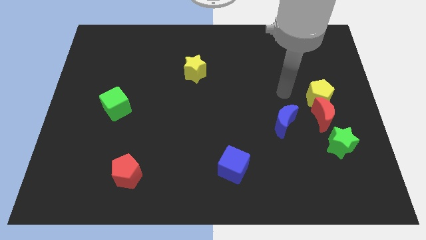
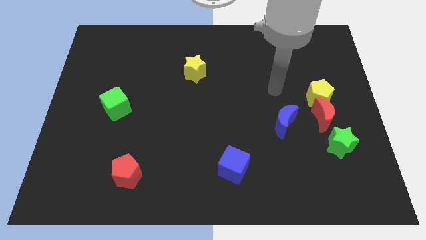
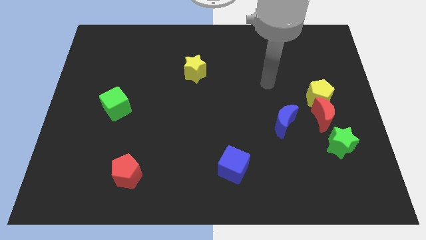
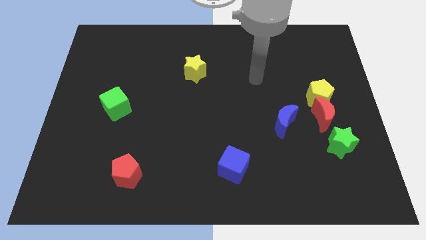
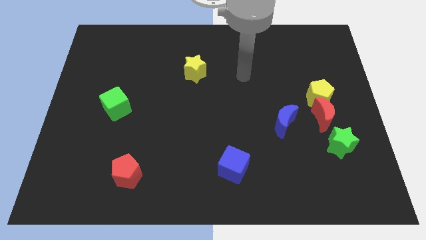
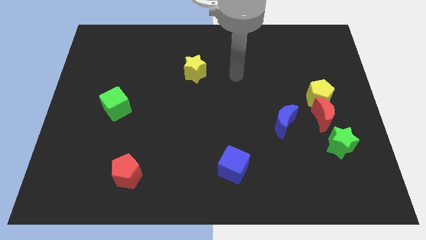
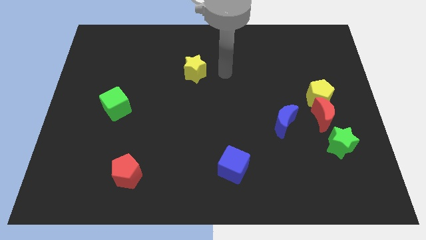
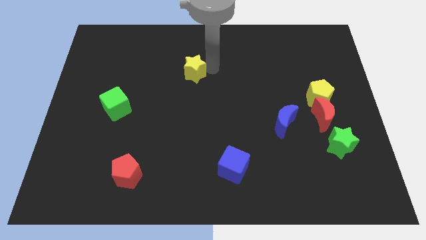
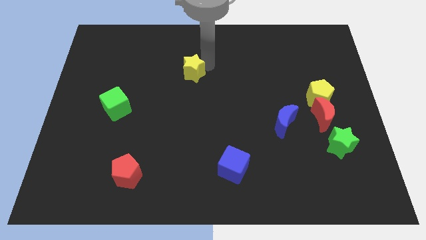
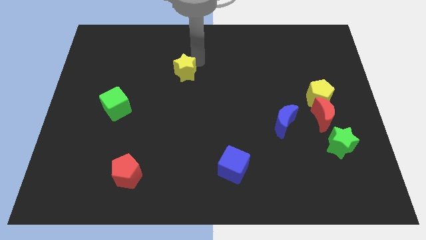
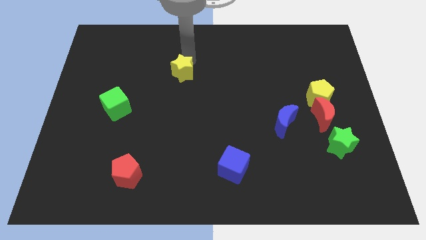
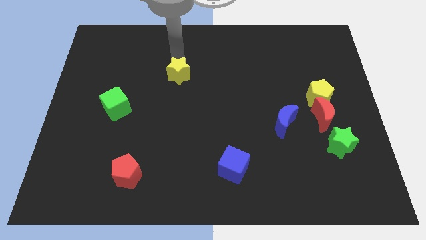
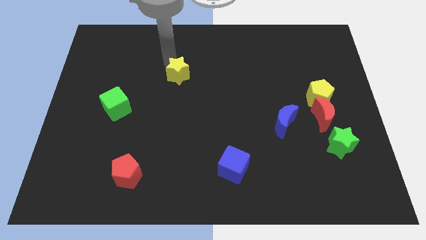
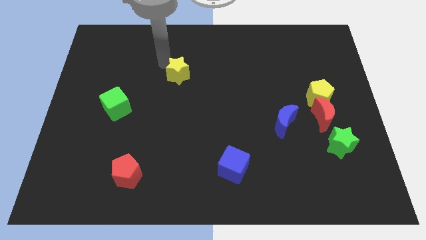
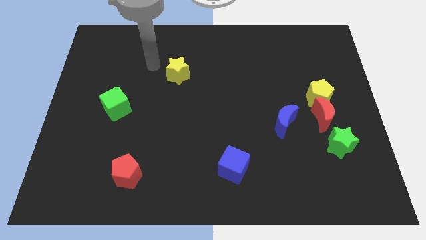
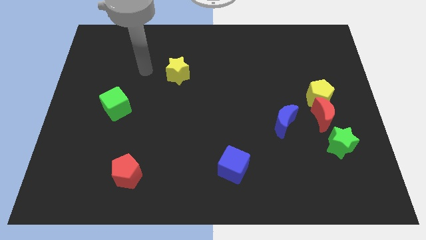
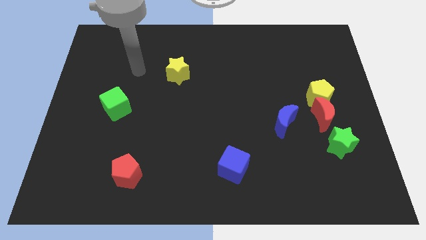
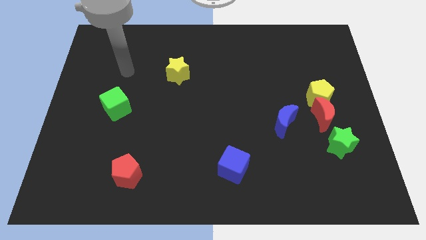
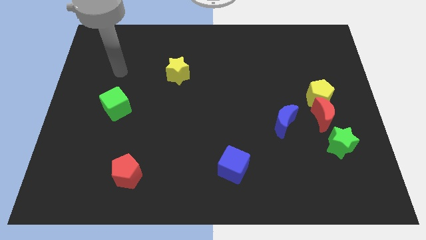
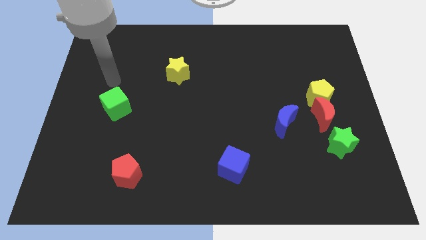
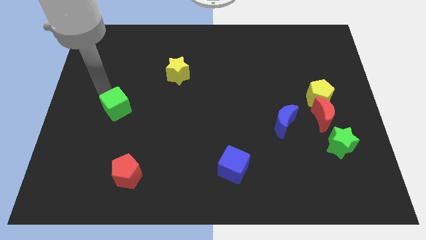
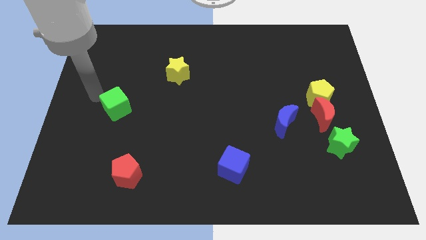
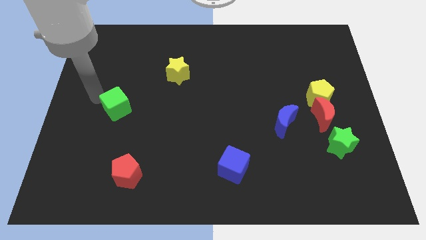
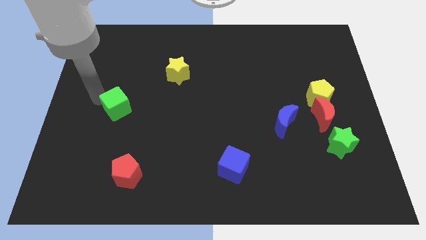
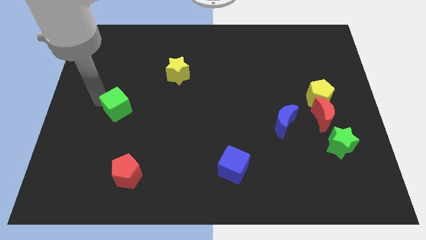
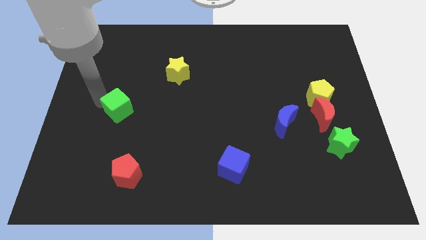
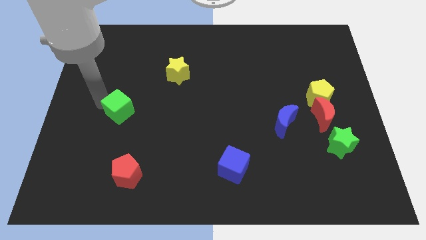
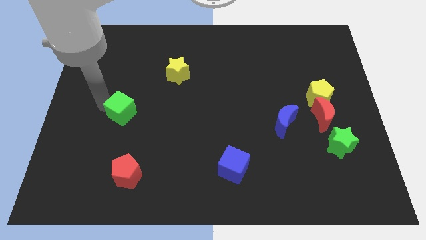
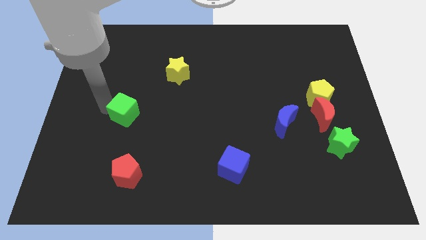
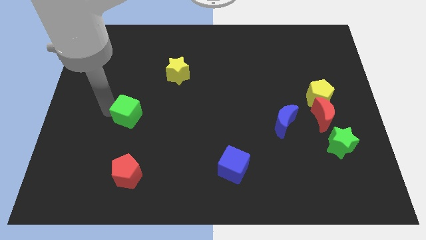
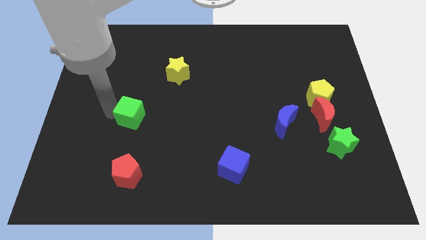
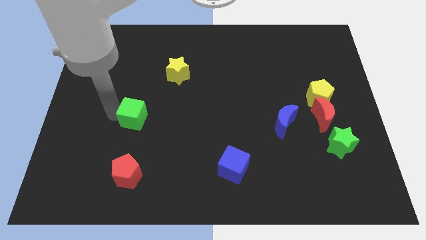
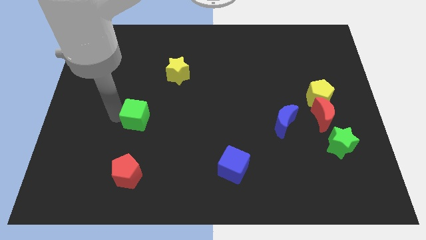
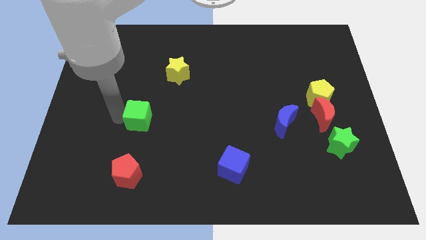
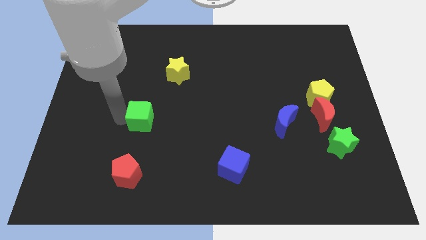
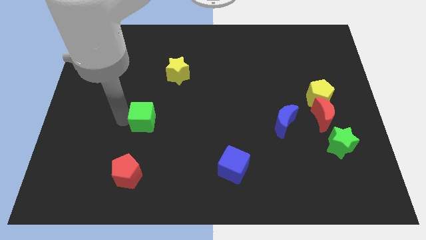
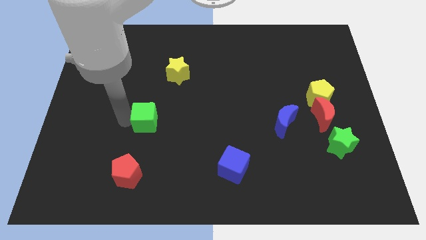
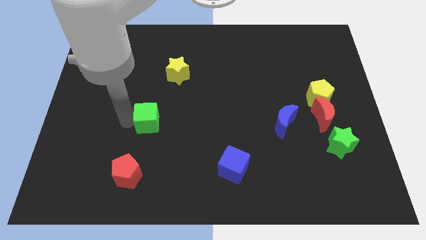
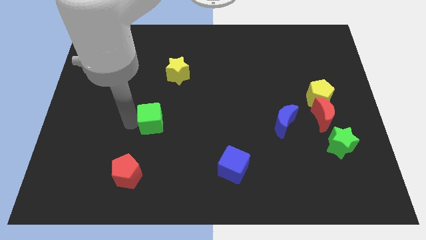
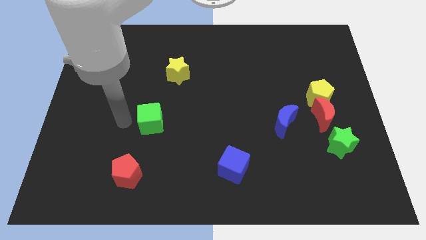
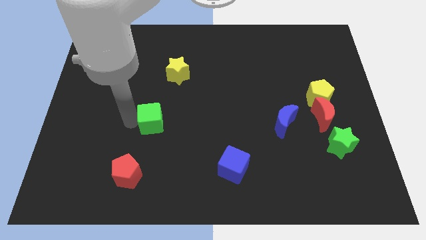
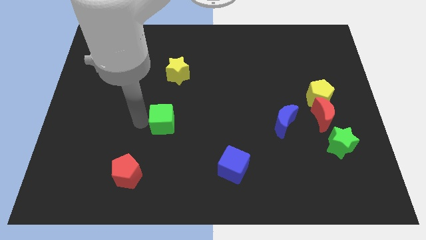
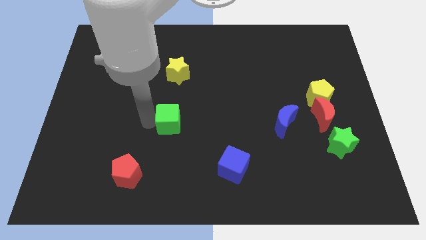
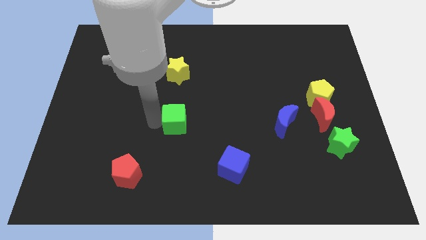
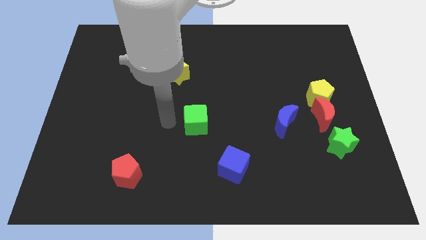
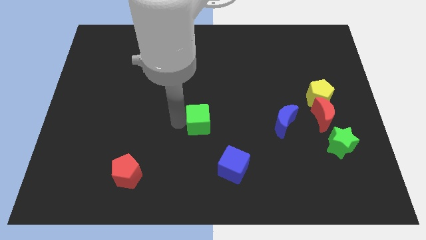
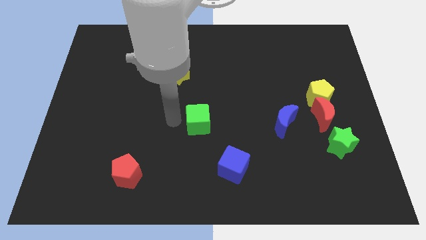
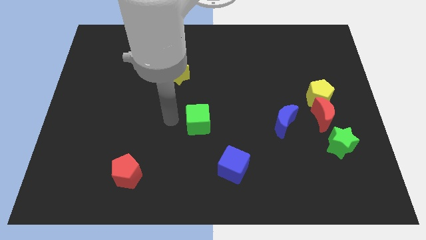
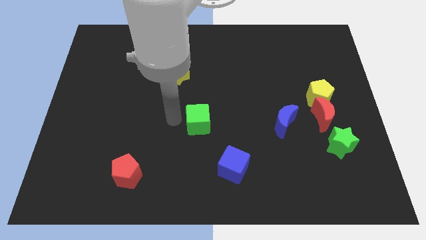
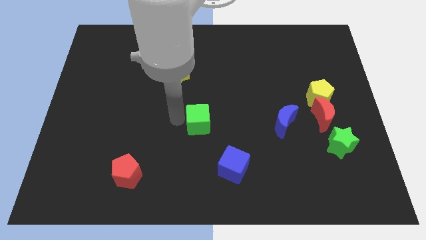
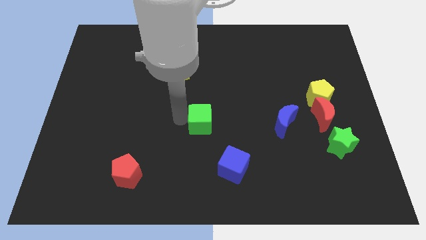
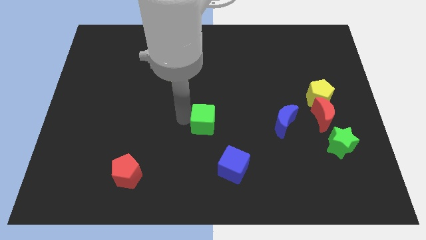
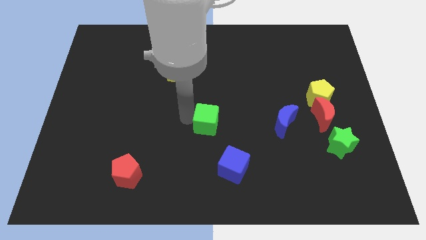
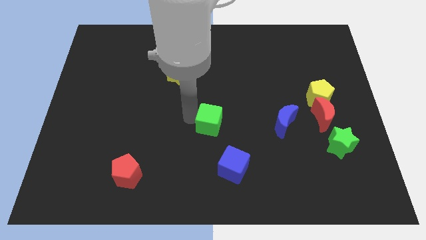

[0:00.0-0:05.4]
put the green cube to the top side of the blue cube

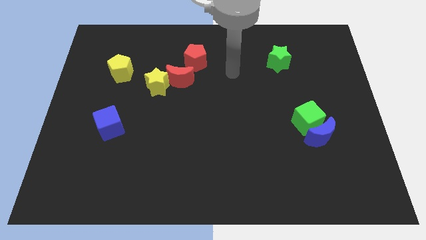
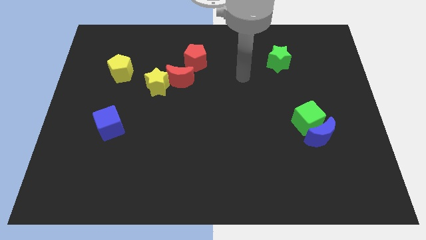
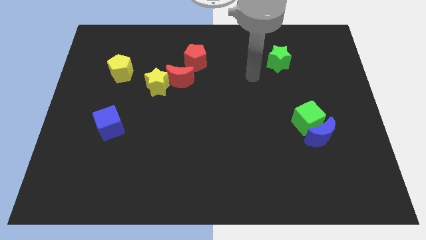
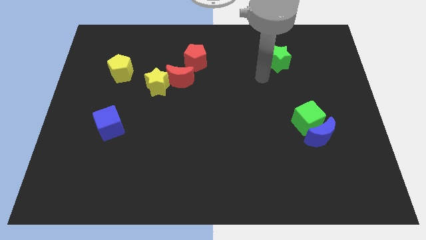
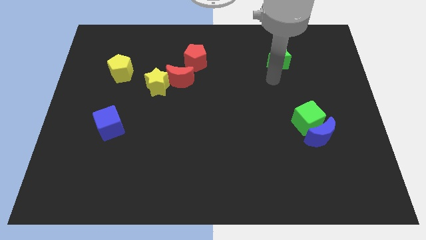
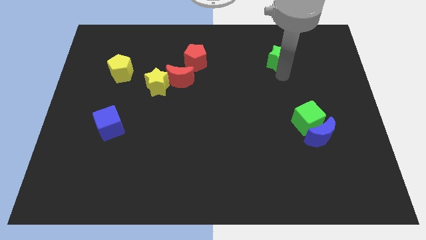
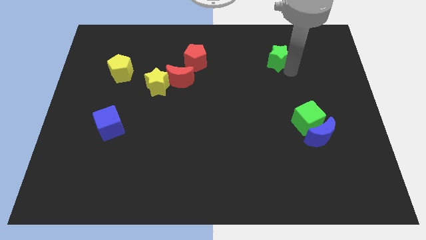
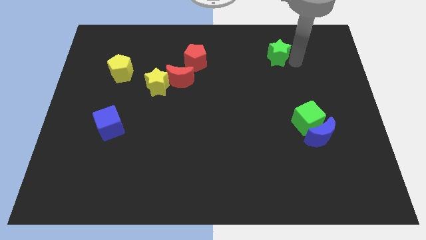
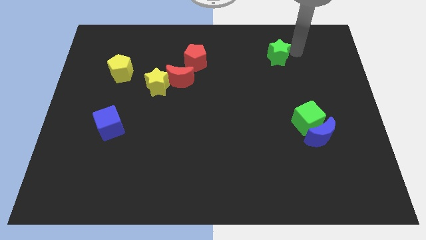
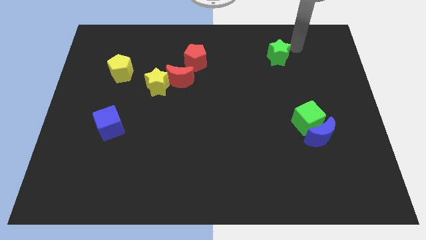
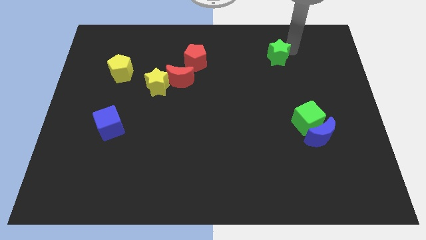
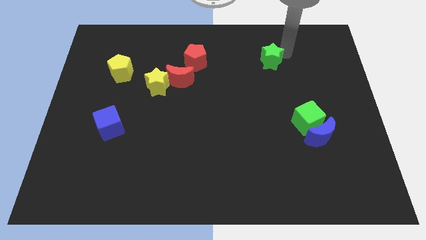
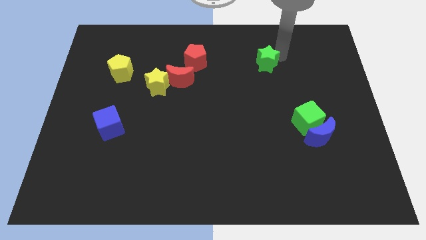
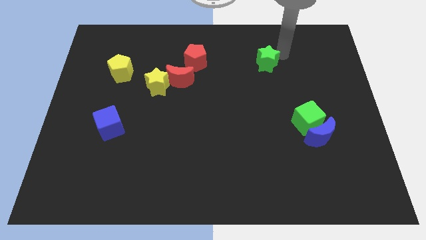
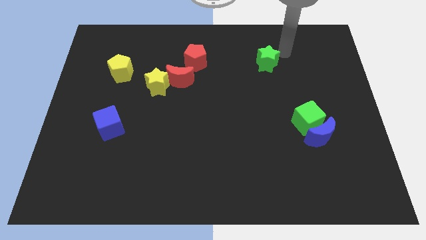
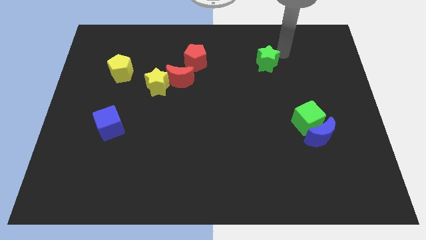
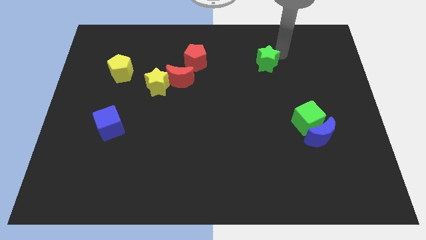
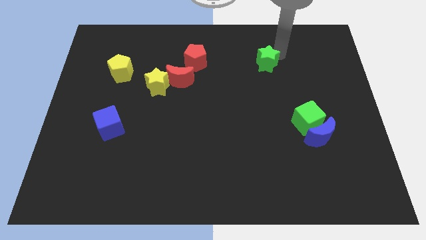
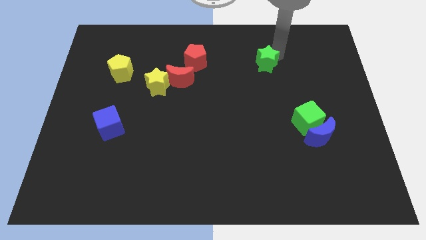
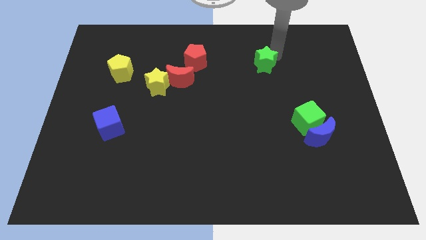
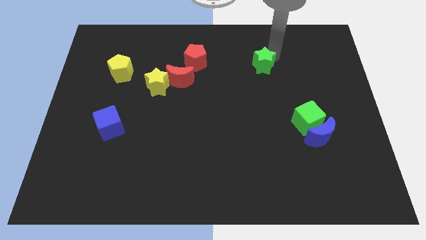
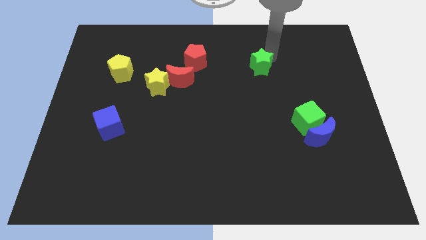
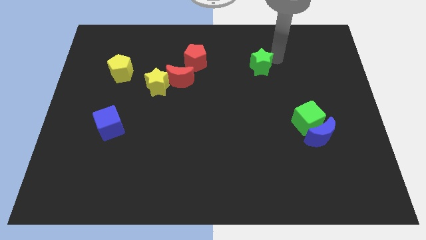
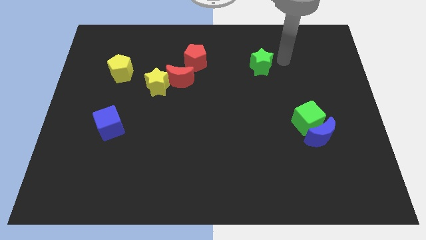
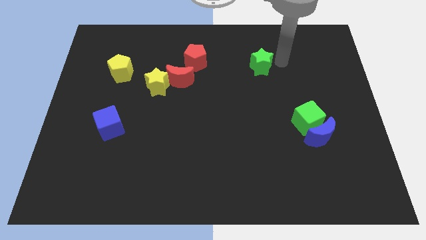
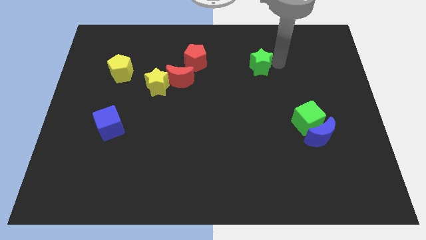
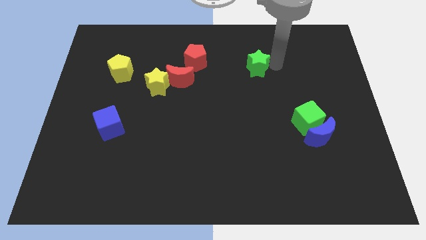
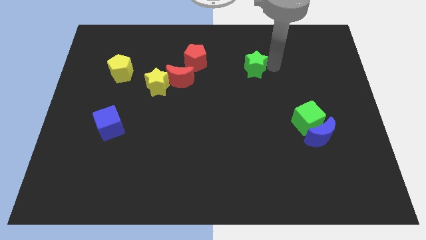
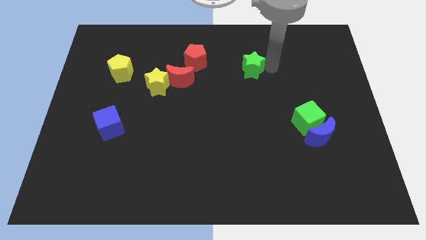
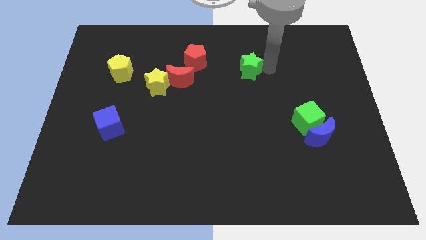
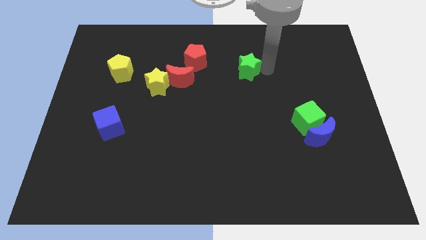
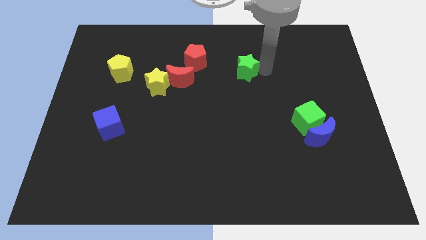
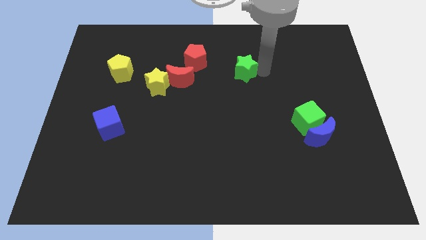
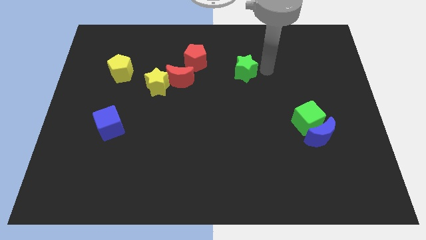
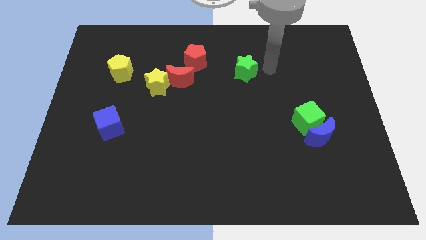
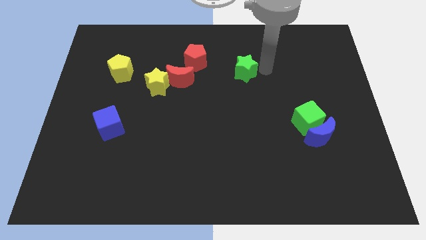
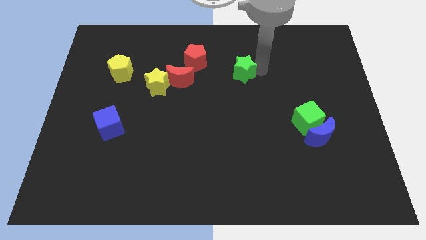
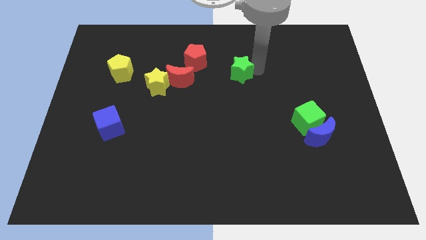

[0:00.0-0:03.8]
push the green star to the right of the red moon
